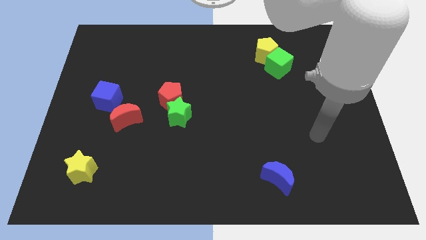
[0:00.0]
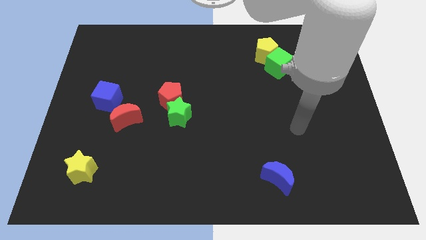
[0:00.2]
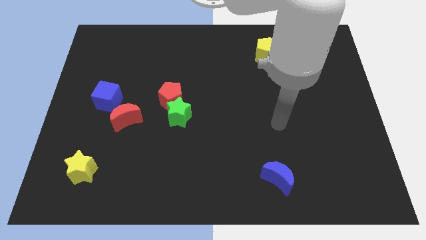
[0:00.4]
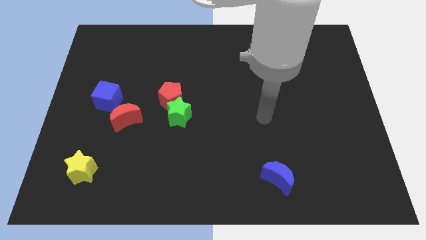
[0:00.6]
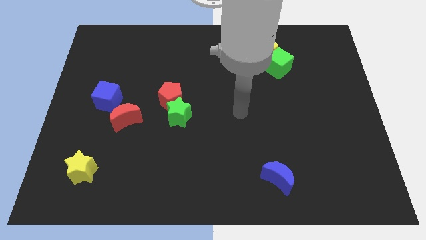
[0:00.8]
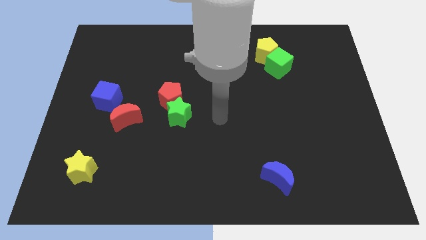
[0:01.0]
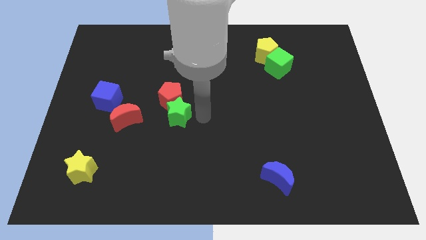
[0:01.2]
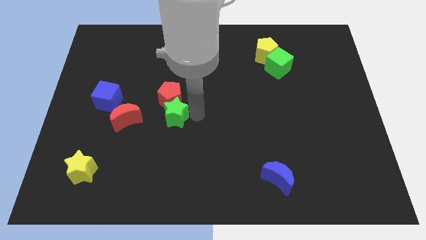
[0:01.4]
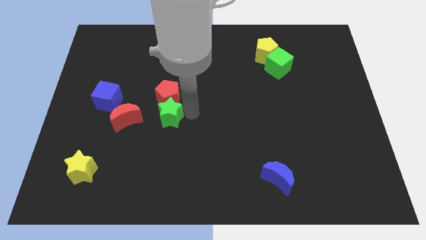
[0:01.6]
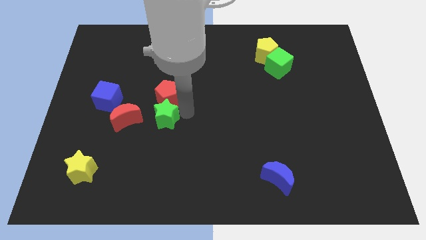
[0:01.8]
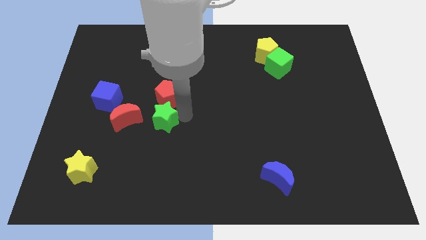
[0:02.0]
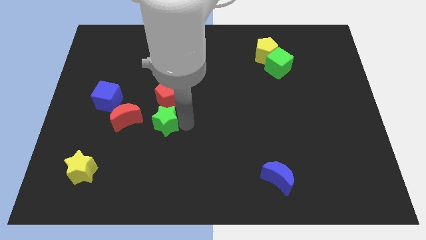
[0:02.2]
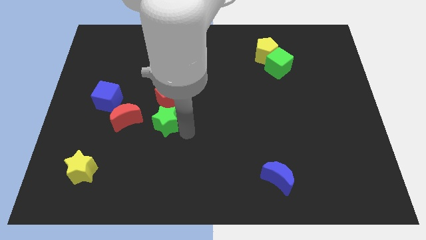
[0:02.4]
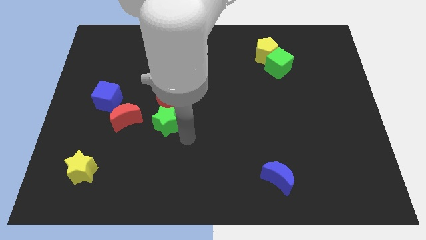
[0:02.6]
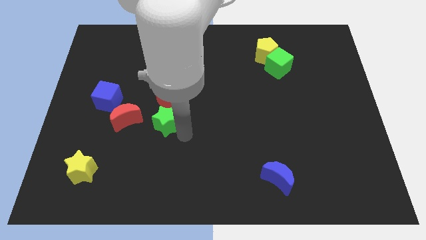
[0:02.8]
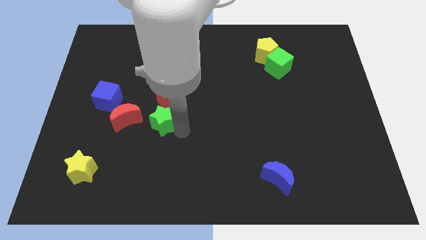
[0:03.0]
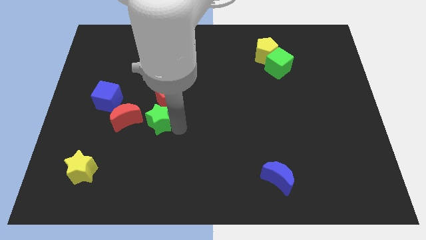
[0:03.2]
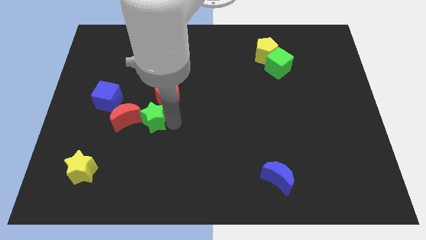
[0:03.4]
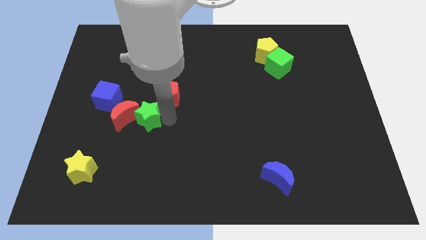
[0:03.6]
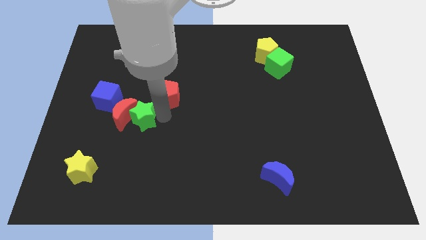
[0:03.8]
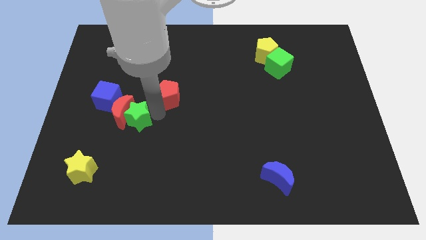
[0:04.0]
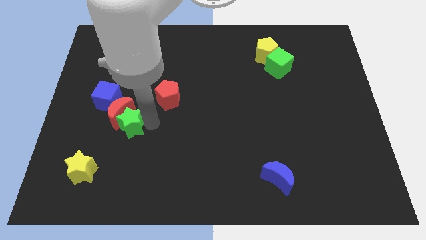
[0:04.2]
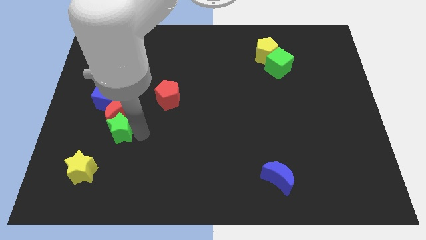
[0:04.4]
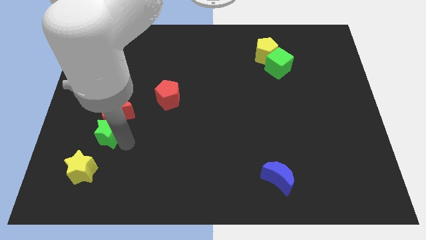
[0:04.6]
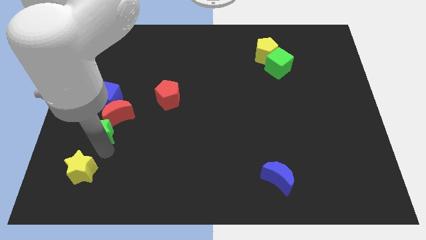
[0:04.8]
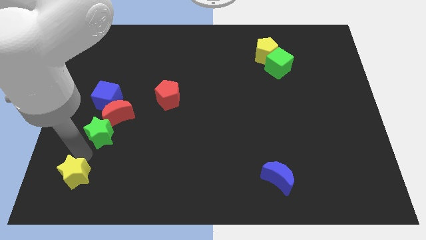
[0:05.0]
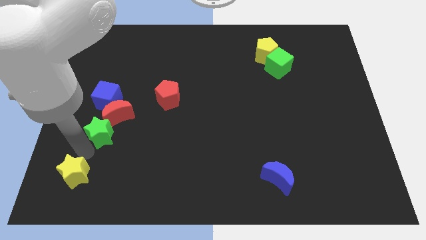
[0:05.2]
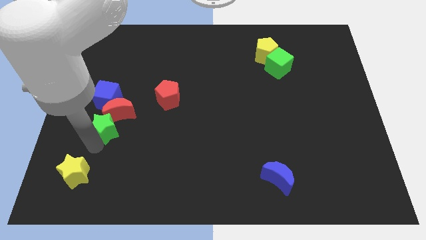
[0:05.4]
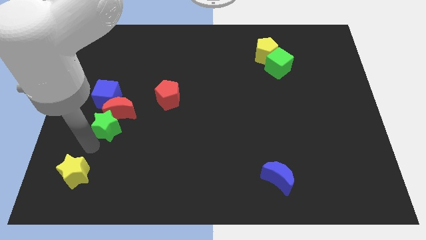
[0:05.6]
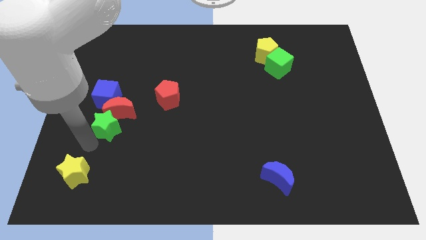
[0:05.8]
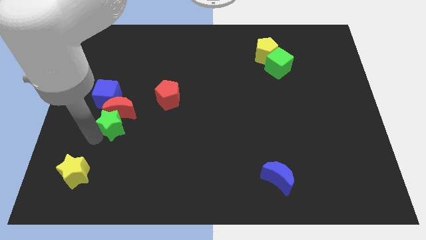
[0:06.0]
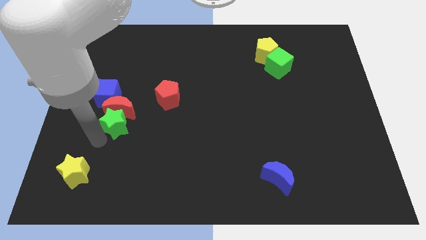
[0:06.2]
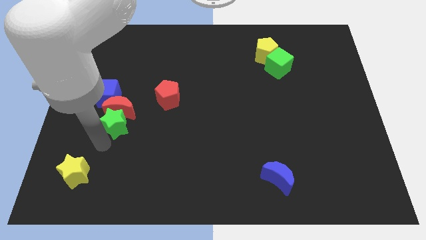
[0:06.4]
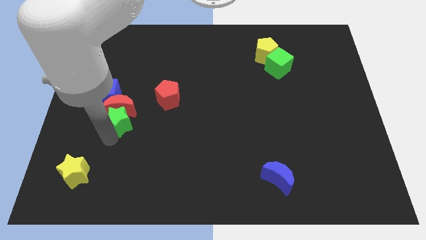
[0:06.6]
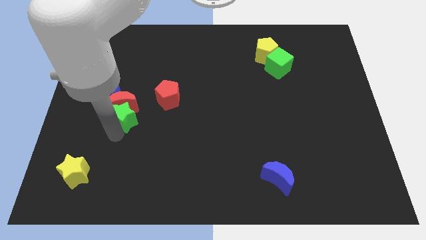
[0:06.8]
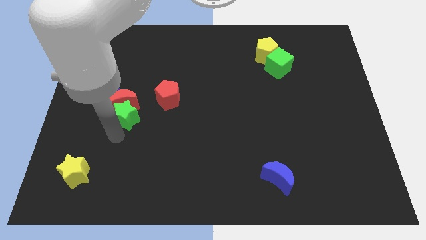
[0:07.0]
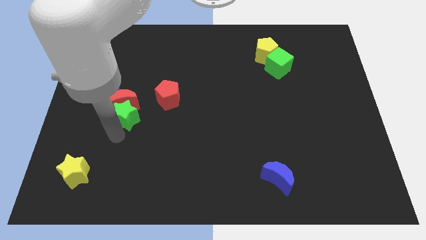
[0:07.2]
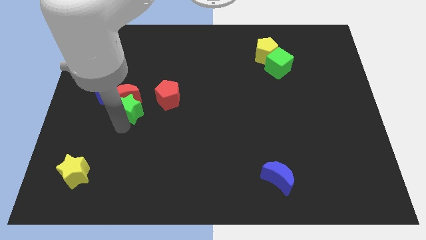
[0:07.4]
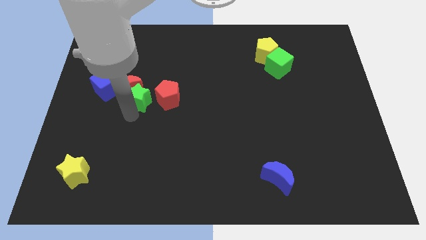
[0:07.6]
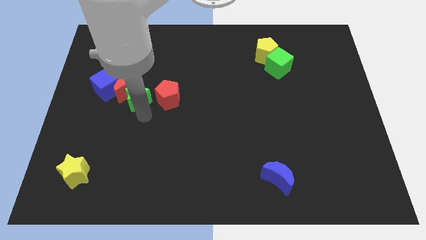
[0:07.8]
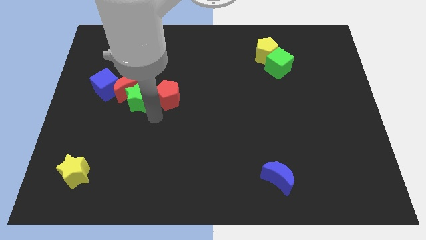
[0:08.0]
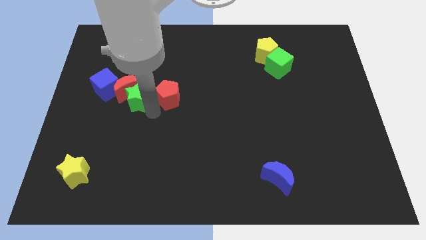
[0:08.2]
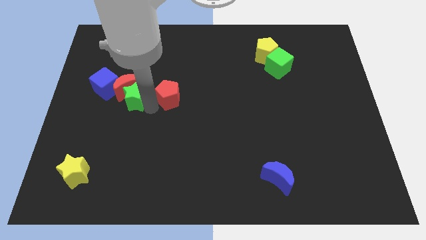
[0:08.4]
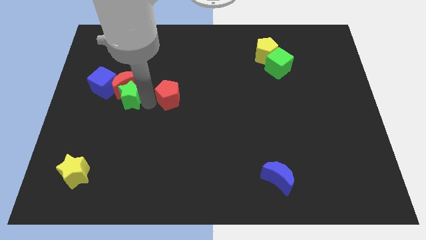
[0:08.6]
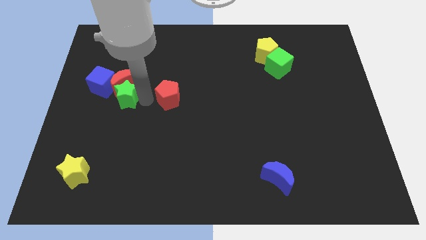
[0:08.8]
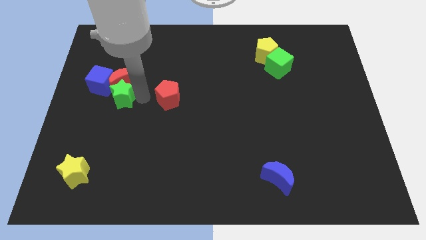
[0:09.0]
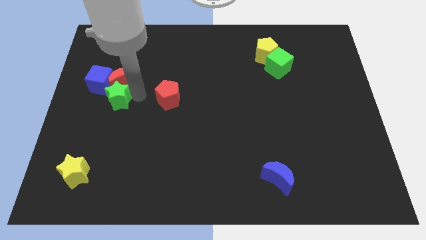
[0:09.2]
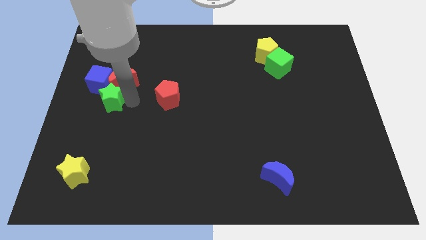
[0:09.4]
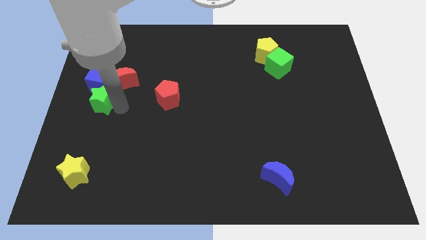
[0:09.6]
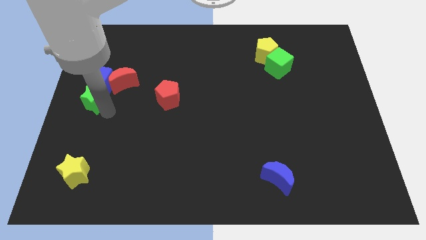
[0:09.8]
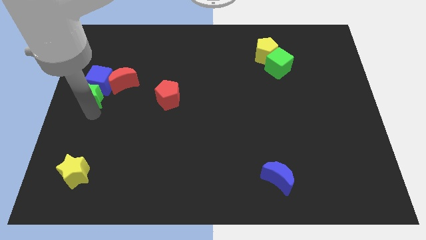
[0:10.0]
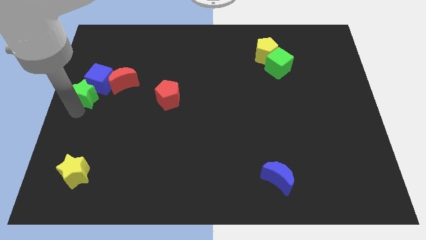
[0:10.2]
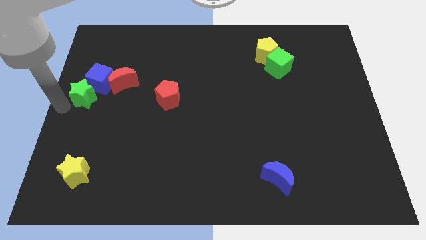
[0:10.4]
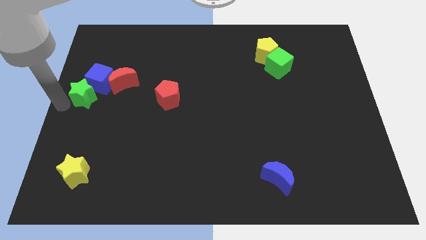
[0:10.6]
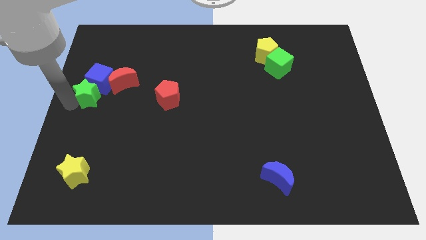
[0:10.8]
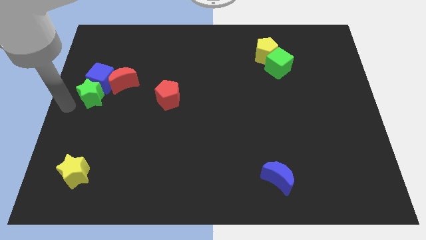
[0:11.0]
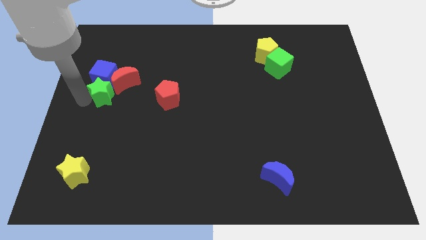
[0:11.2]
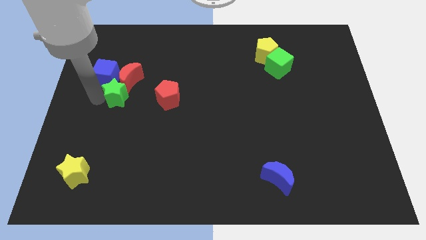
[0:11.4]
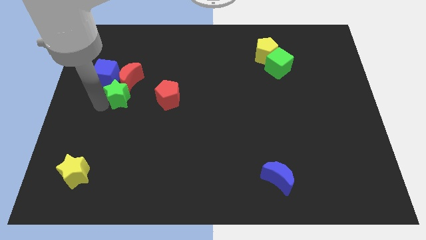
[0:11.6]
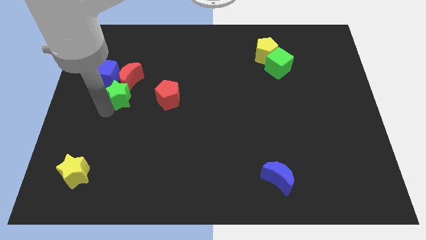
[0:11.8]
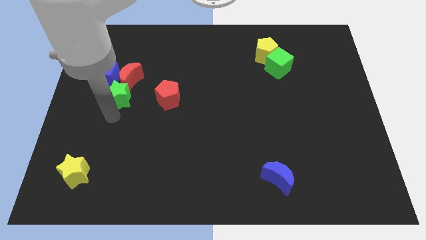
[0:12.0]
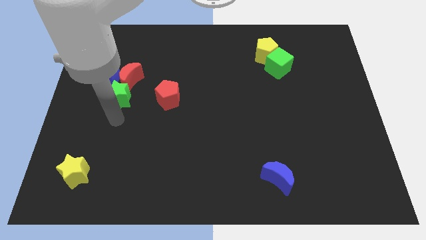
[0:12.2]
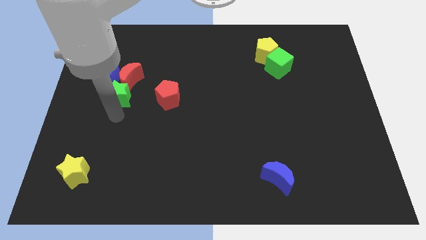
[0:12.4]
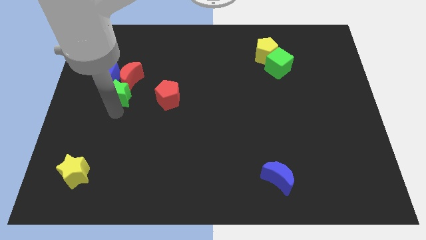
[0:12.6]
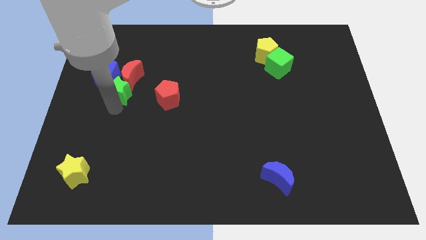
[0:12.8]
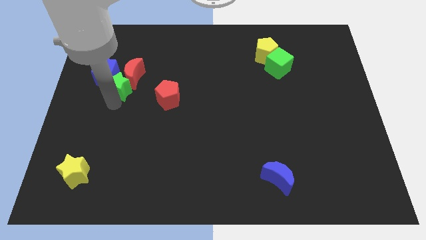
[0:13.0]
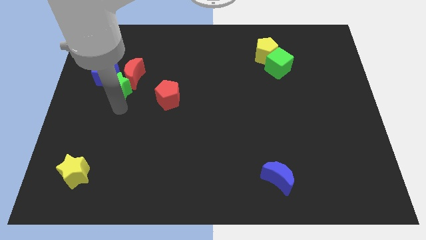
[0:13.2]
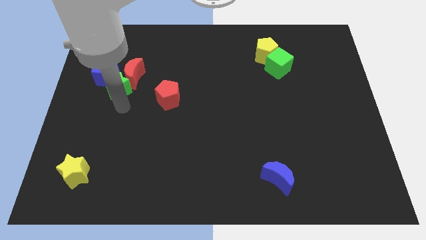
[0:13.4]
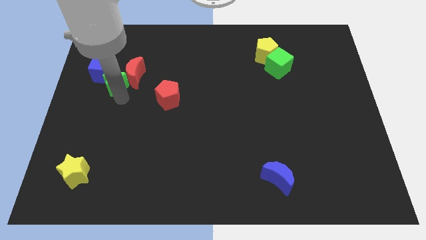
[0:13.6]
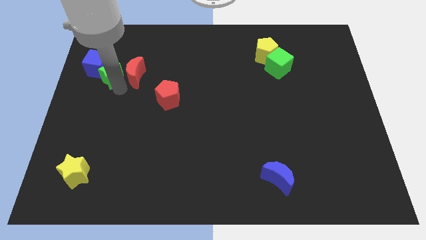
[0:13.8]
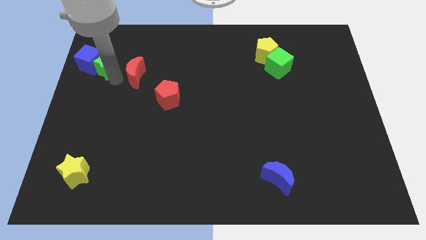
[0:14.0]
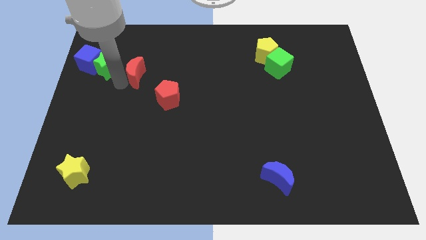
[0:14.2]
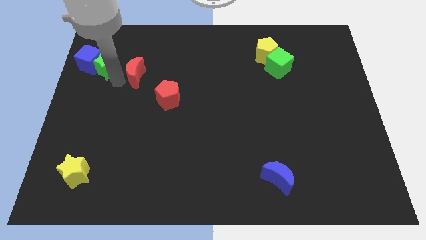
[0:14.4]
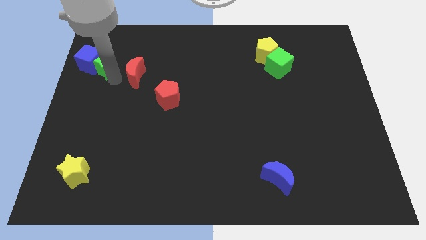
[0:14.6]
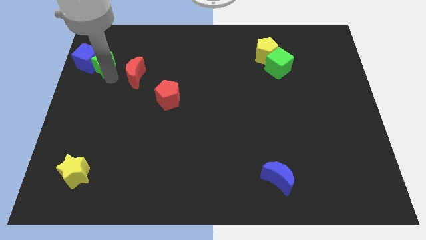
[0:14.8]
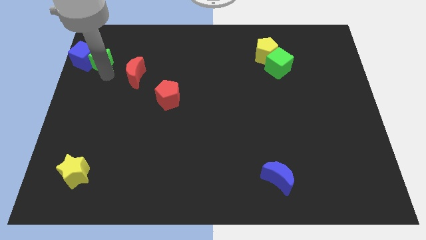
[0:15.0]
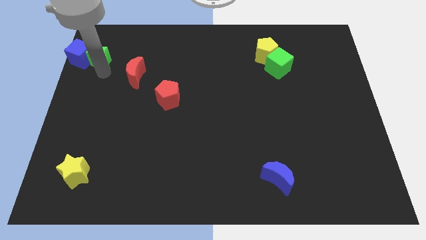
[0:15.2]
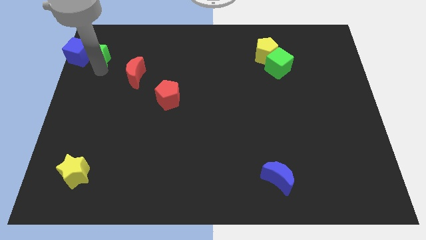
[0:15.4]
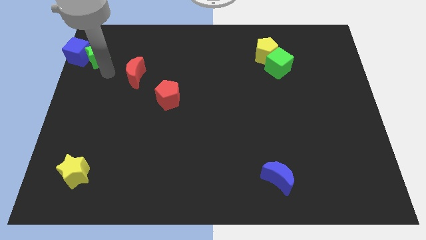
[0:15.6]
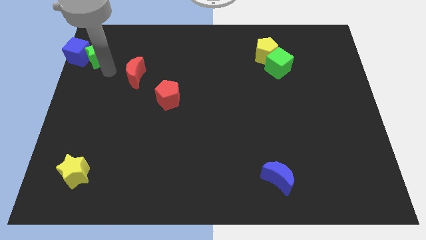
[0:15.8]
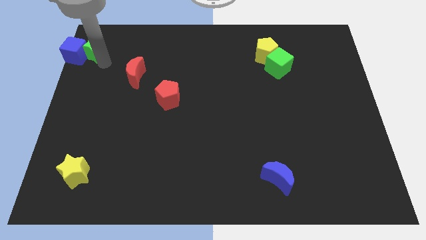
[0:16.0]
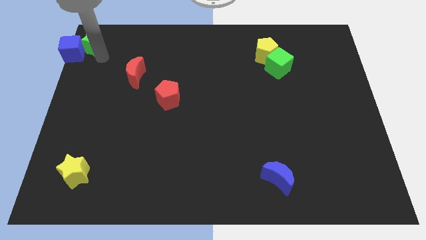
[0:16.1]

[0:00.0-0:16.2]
put the green star to the top left
